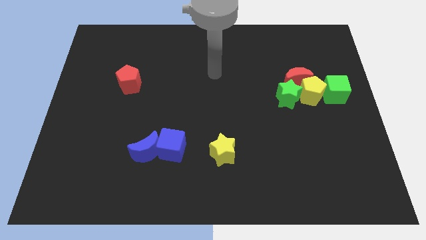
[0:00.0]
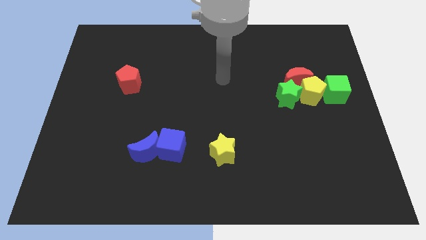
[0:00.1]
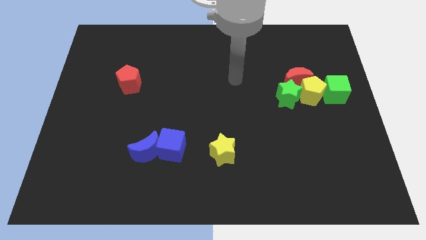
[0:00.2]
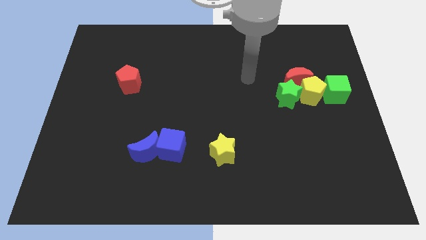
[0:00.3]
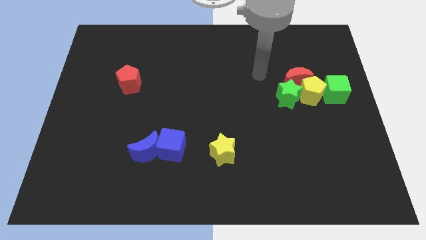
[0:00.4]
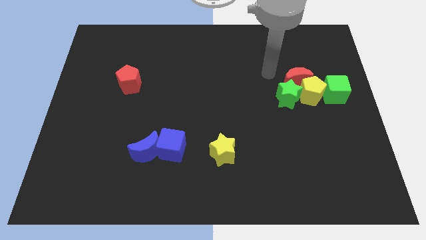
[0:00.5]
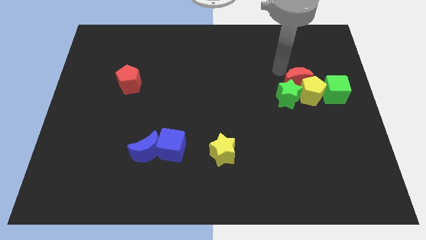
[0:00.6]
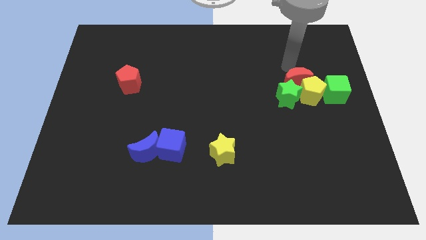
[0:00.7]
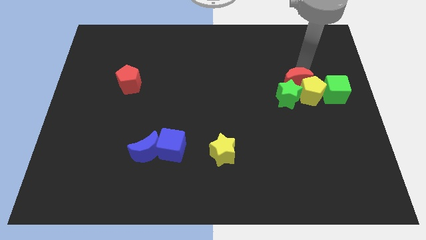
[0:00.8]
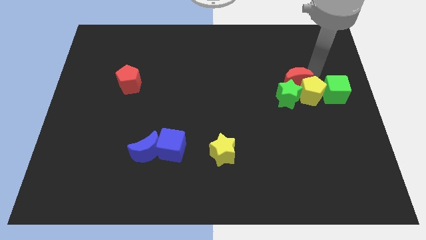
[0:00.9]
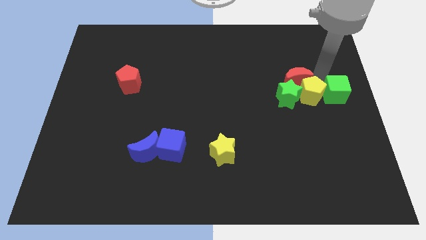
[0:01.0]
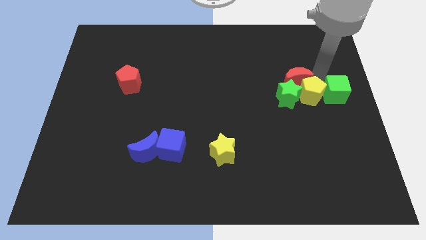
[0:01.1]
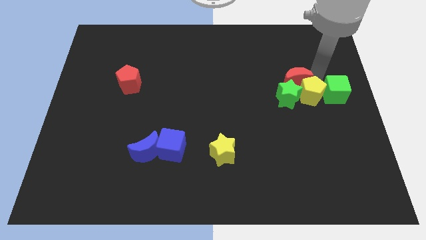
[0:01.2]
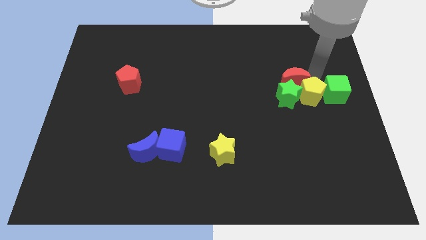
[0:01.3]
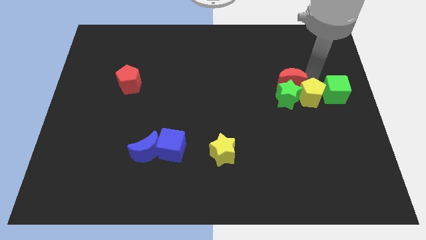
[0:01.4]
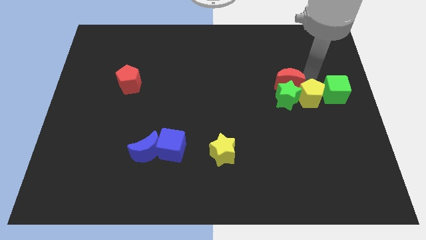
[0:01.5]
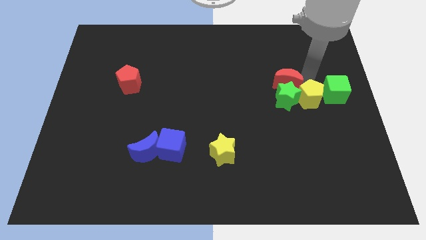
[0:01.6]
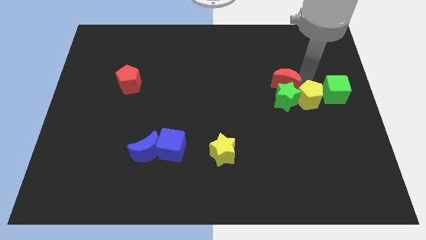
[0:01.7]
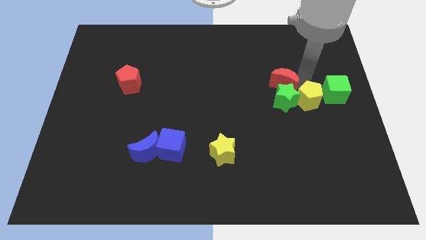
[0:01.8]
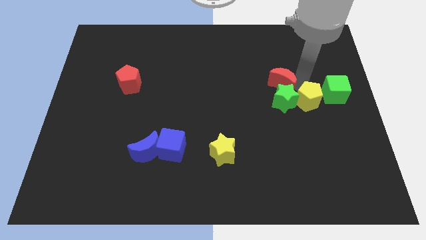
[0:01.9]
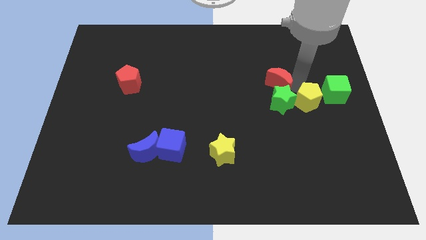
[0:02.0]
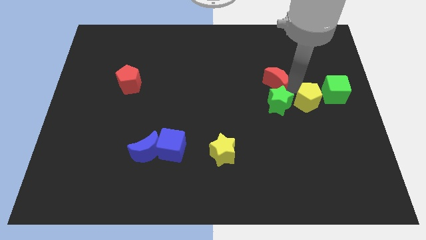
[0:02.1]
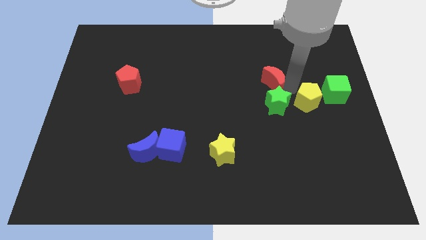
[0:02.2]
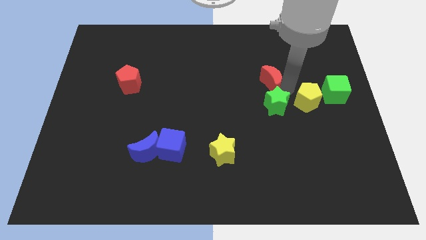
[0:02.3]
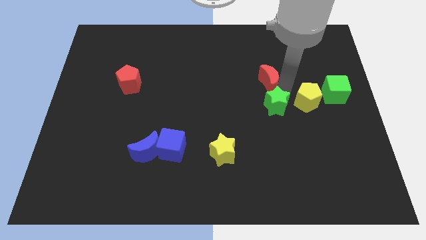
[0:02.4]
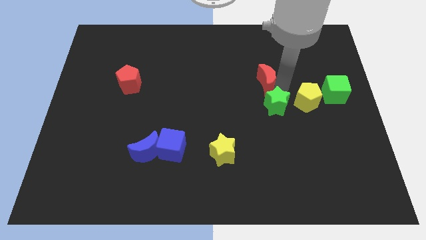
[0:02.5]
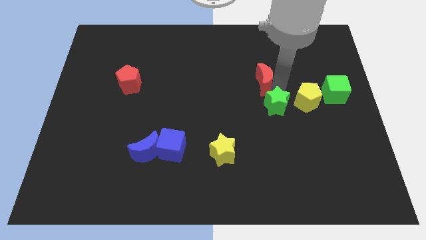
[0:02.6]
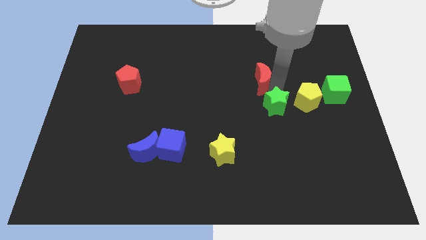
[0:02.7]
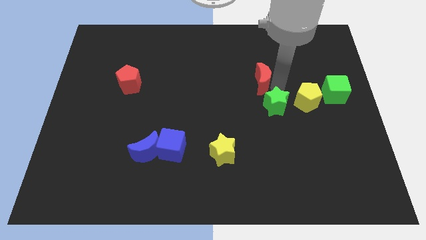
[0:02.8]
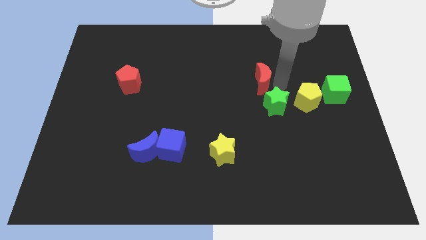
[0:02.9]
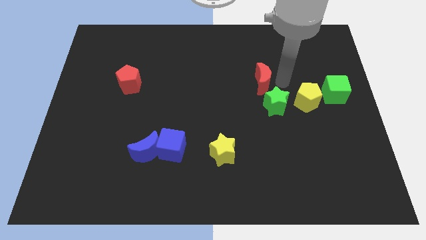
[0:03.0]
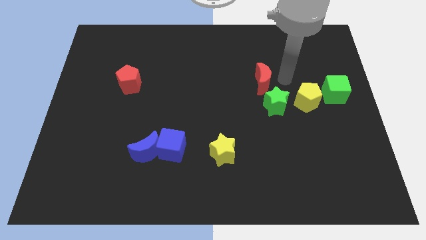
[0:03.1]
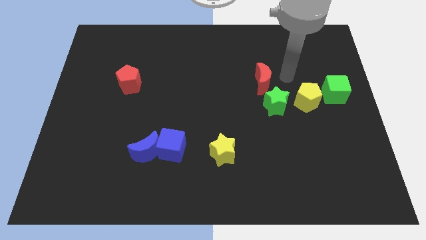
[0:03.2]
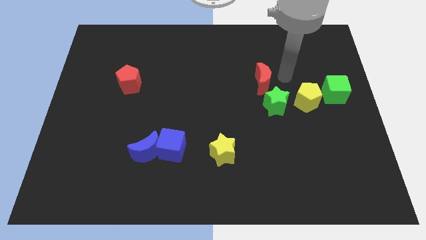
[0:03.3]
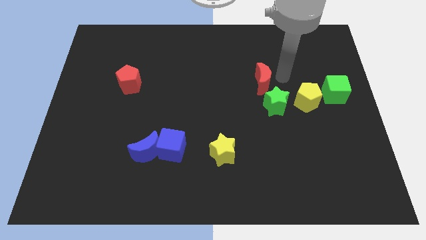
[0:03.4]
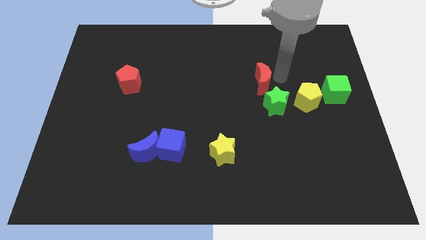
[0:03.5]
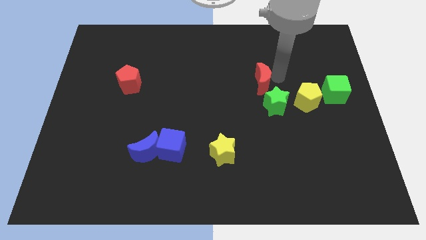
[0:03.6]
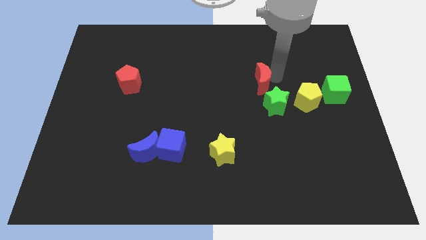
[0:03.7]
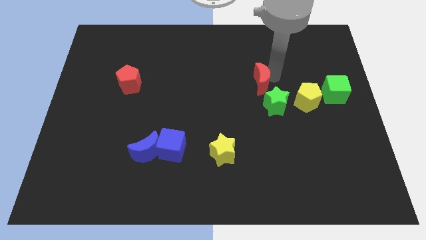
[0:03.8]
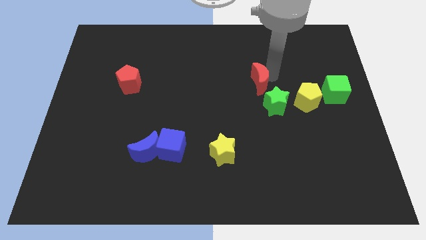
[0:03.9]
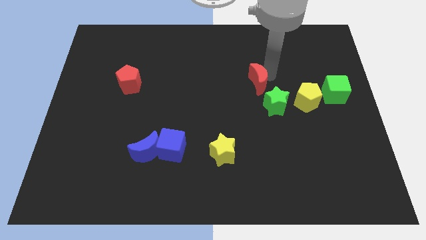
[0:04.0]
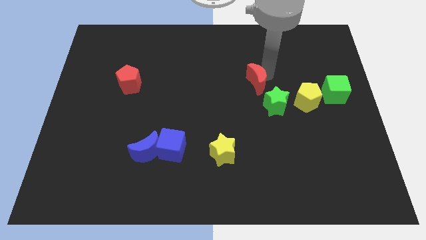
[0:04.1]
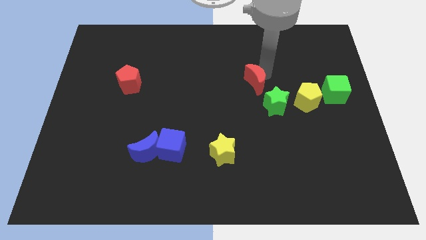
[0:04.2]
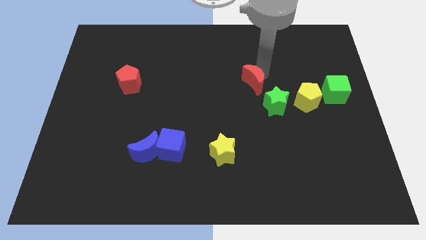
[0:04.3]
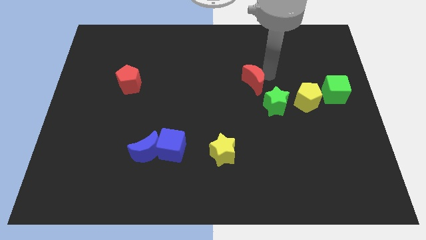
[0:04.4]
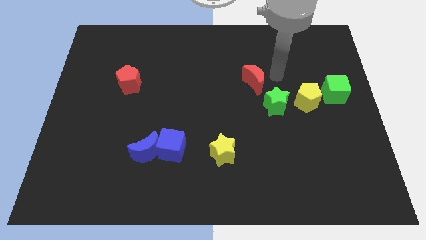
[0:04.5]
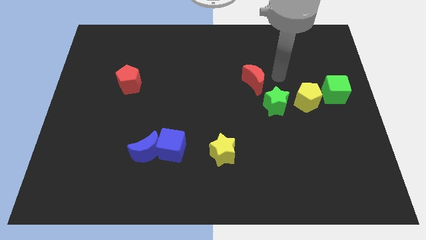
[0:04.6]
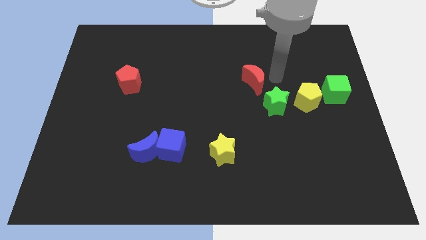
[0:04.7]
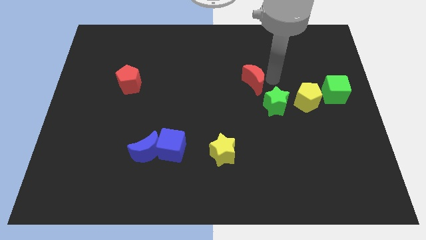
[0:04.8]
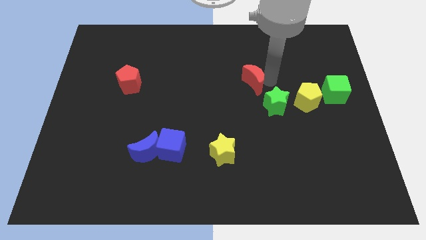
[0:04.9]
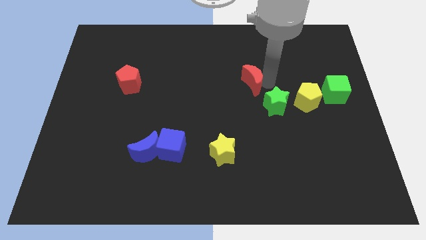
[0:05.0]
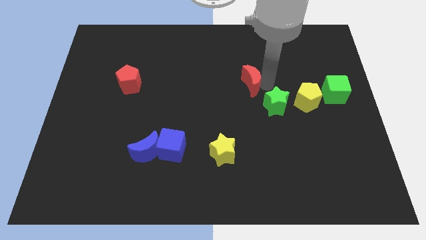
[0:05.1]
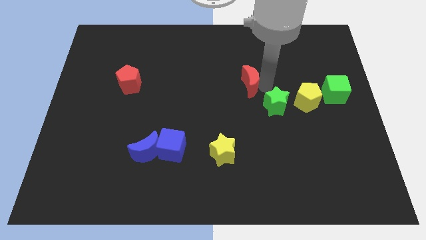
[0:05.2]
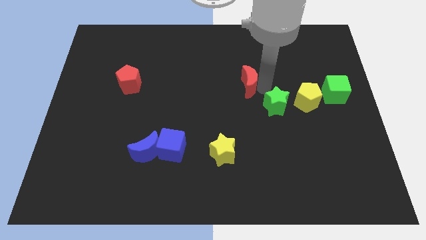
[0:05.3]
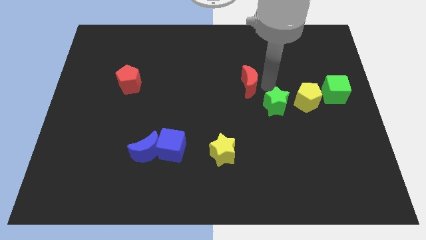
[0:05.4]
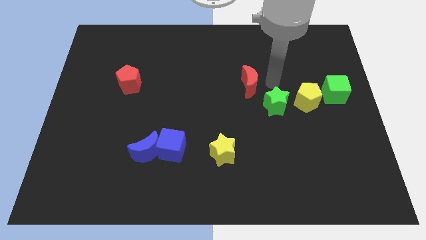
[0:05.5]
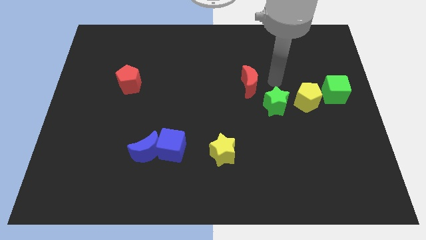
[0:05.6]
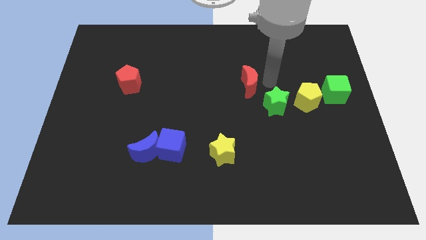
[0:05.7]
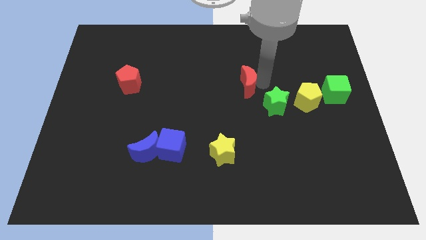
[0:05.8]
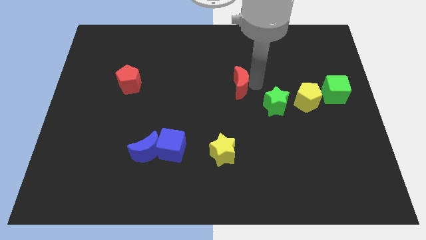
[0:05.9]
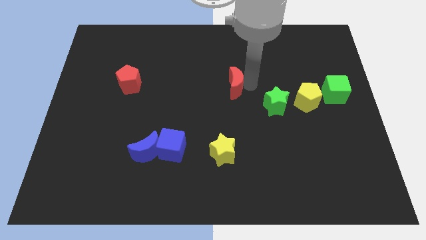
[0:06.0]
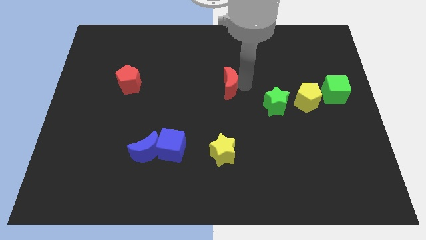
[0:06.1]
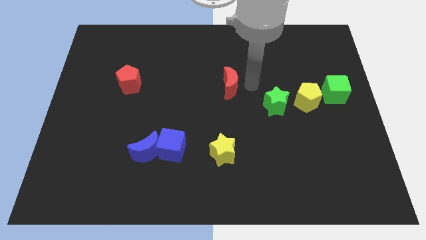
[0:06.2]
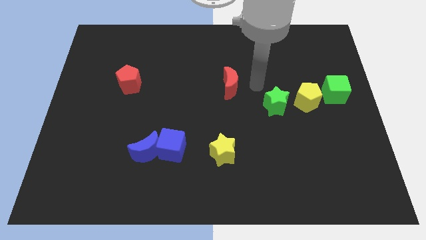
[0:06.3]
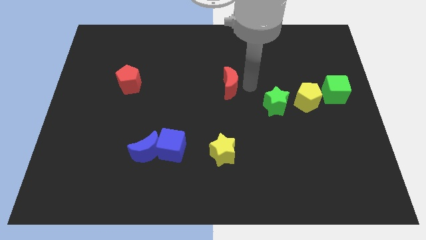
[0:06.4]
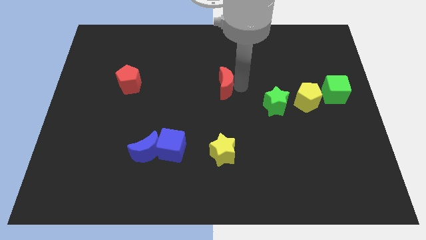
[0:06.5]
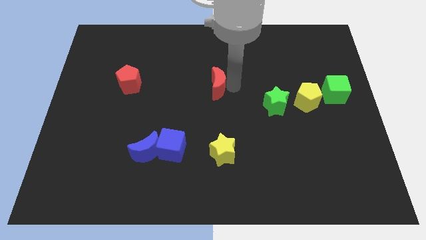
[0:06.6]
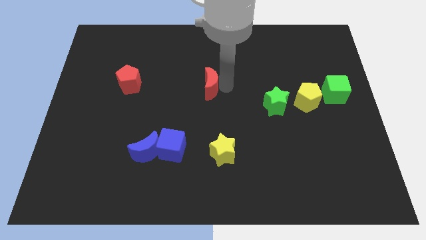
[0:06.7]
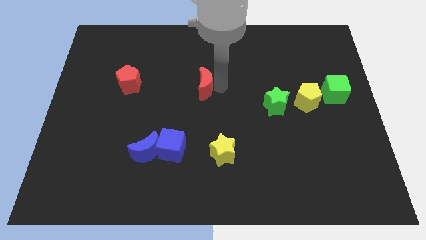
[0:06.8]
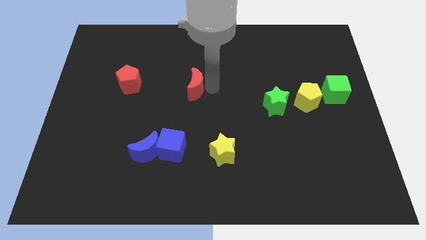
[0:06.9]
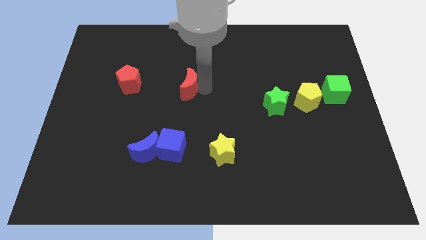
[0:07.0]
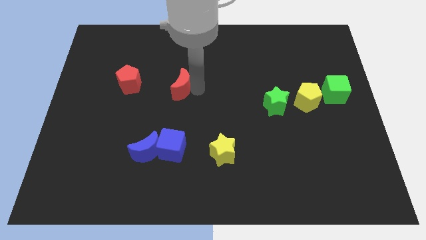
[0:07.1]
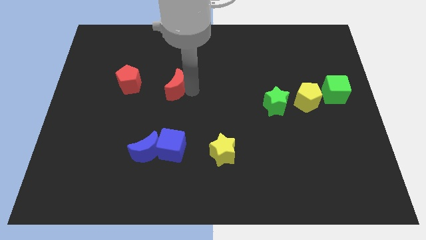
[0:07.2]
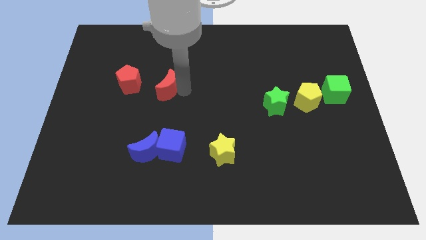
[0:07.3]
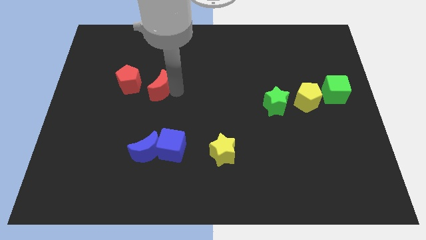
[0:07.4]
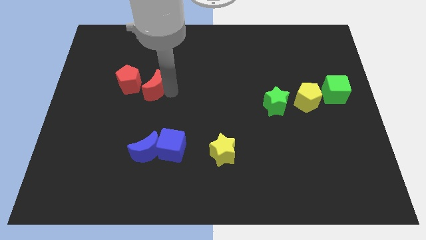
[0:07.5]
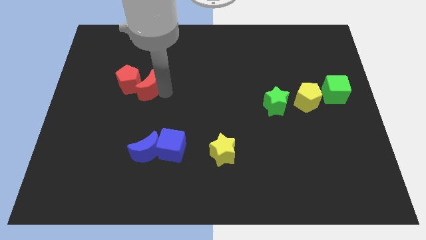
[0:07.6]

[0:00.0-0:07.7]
move the red moon towards the red pentagon

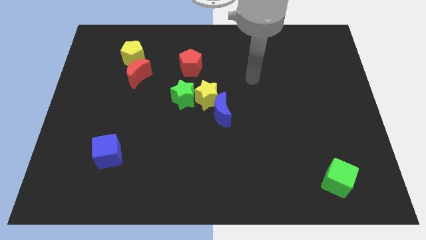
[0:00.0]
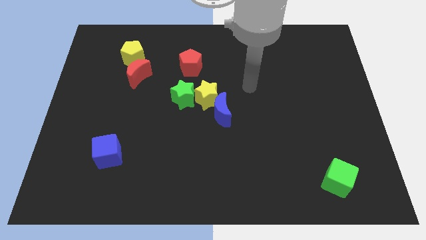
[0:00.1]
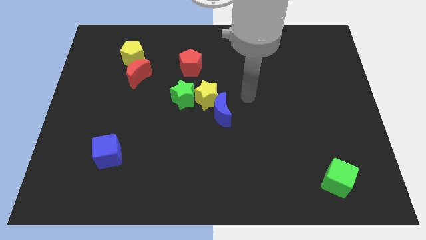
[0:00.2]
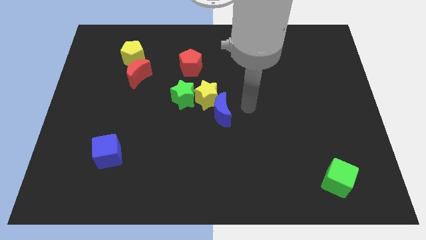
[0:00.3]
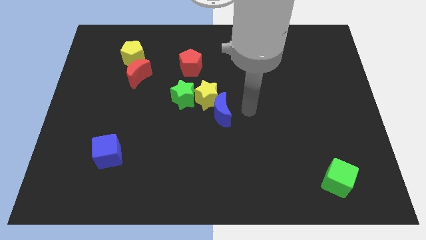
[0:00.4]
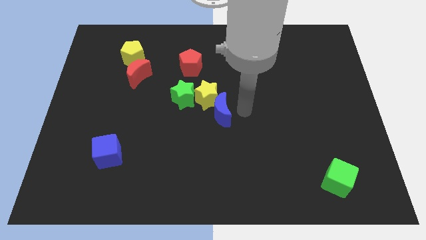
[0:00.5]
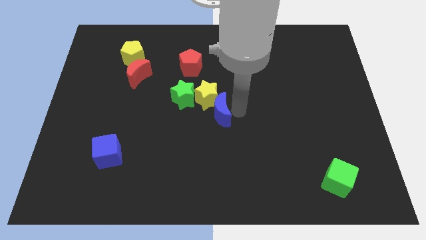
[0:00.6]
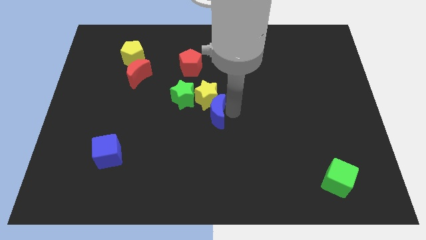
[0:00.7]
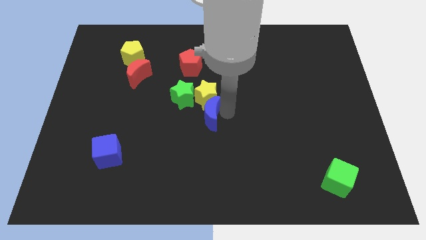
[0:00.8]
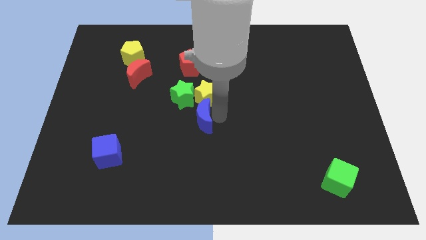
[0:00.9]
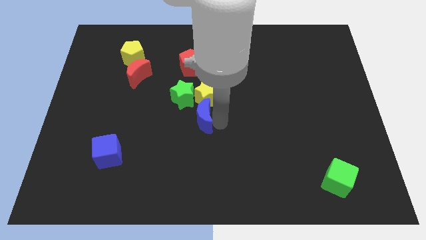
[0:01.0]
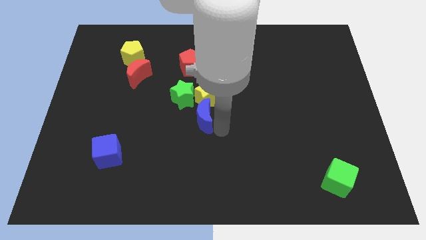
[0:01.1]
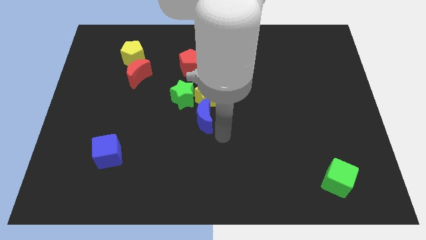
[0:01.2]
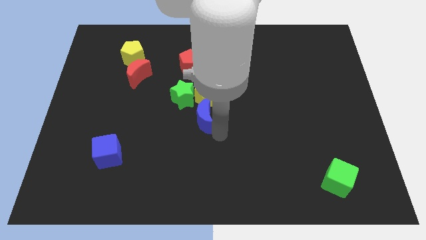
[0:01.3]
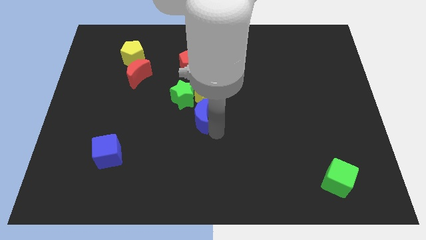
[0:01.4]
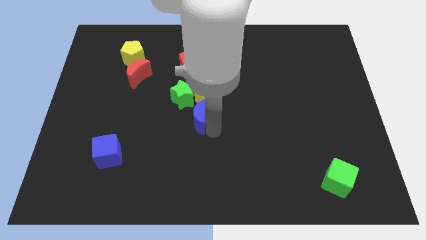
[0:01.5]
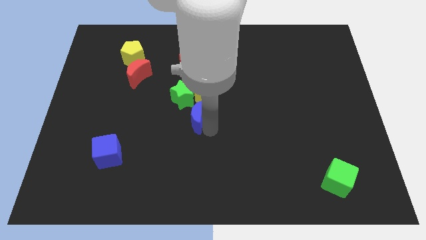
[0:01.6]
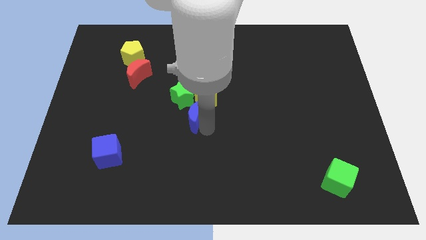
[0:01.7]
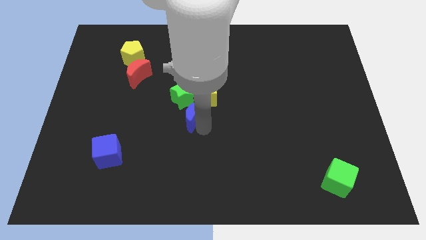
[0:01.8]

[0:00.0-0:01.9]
move the blue moon next to the green star
